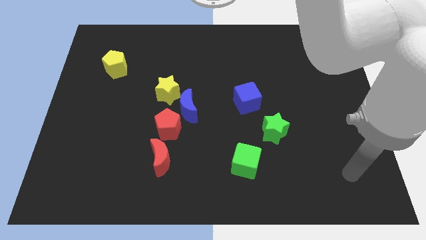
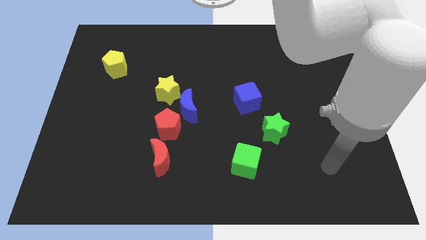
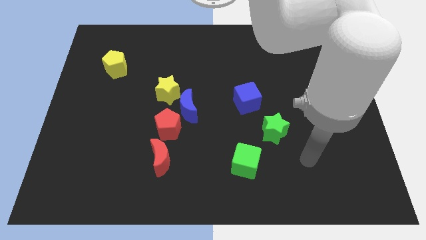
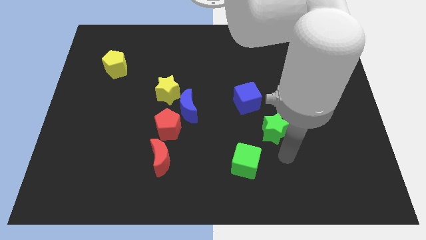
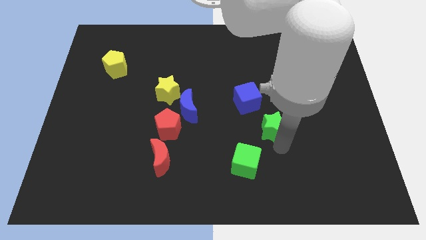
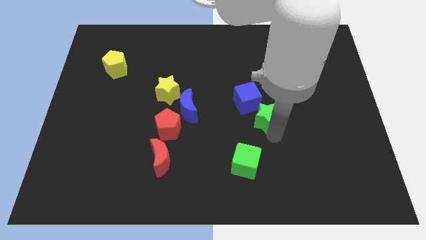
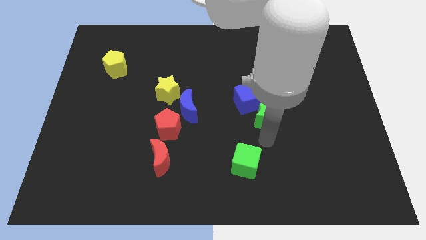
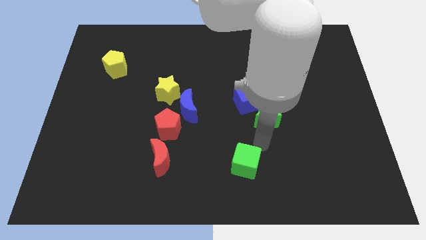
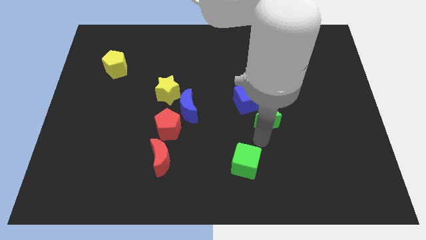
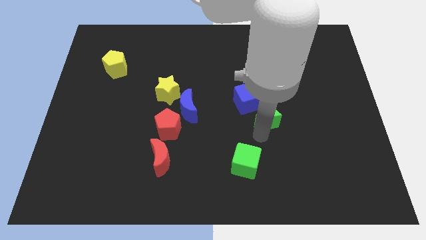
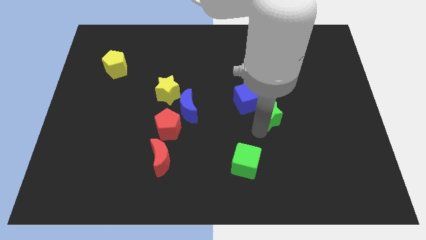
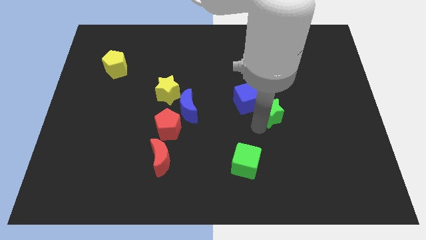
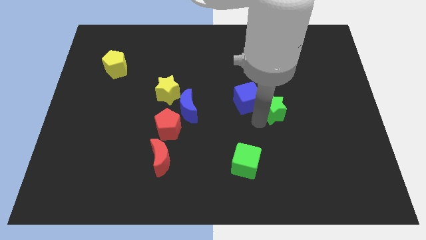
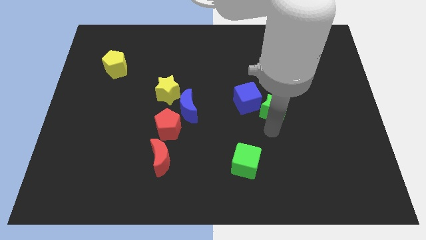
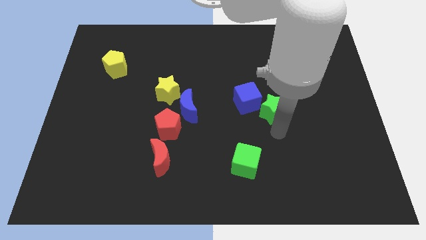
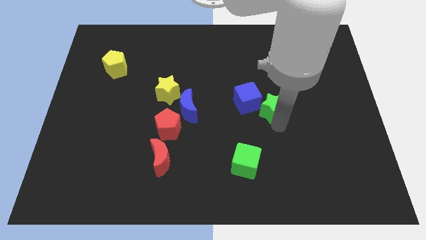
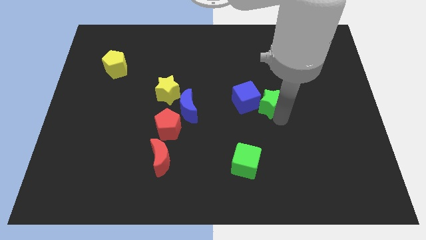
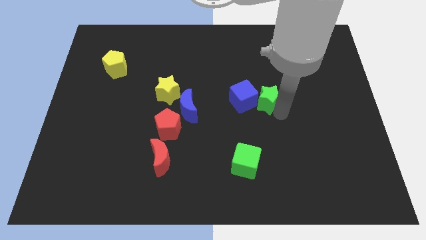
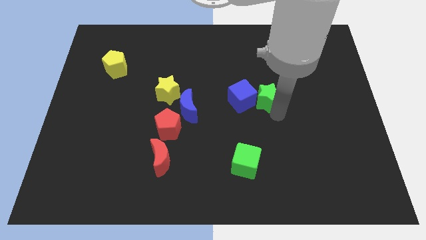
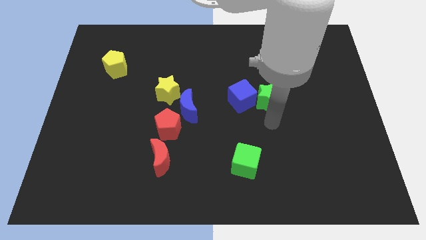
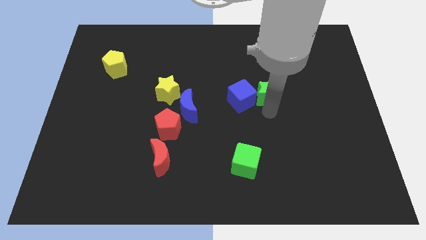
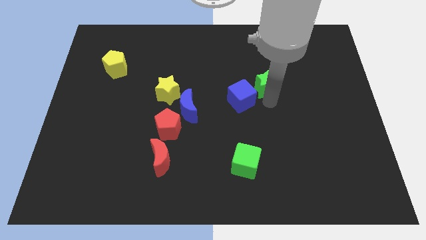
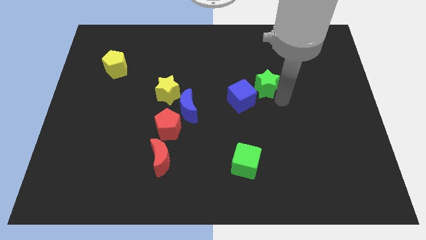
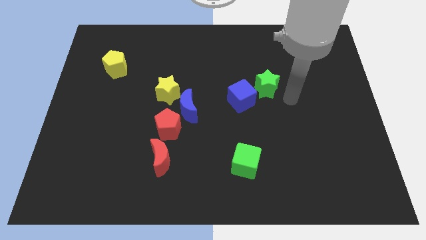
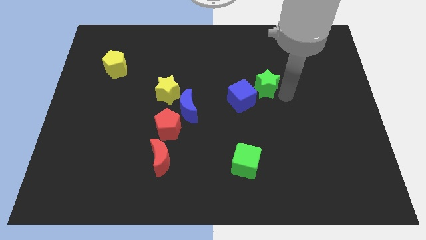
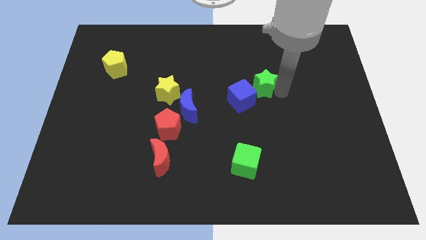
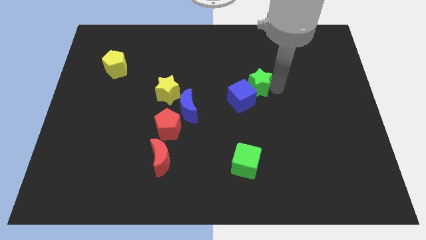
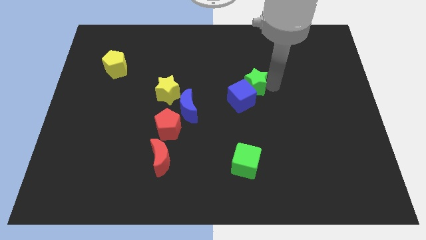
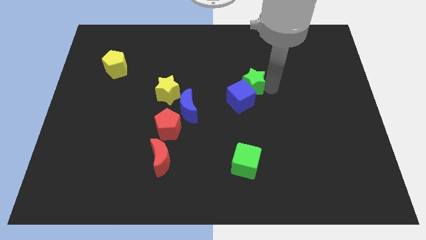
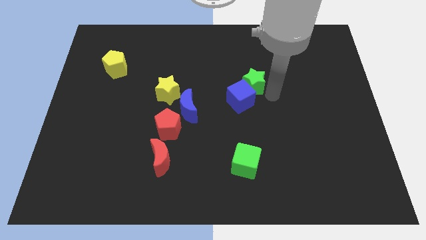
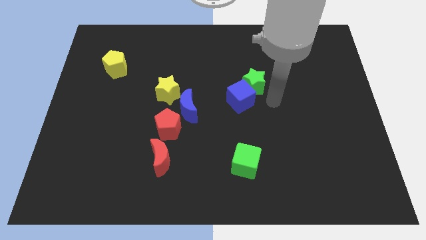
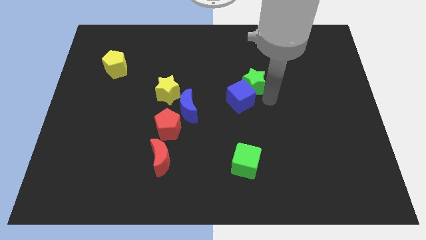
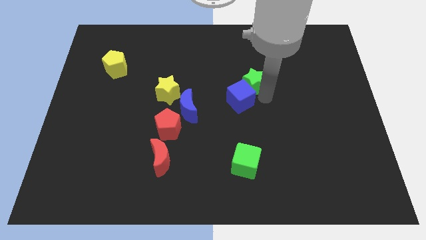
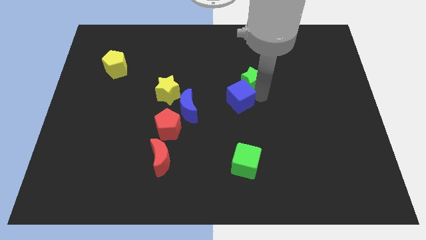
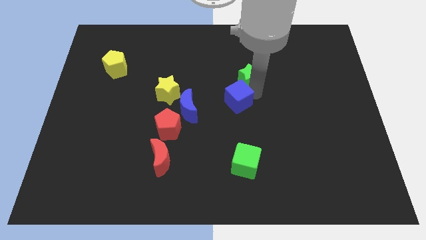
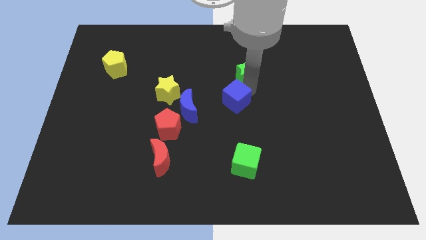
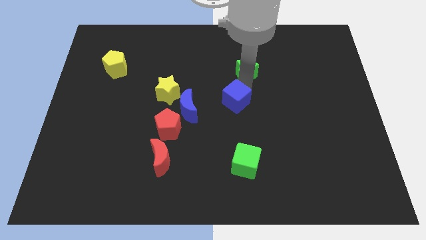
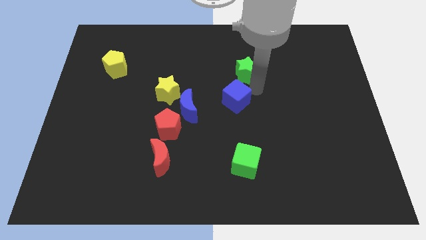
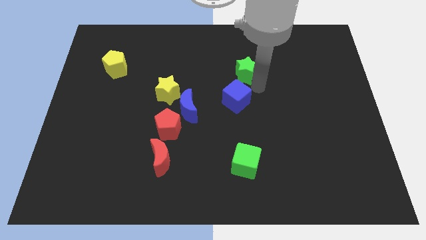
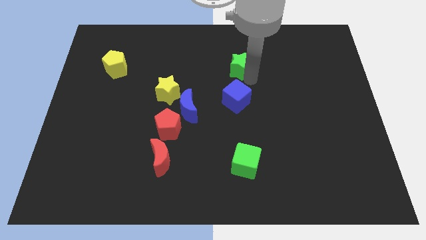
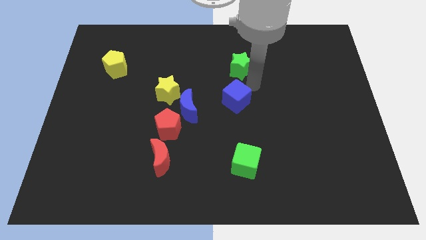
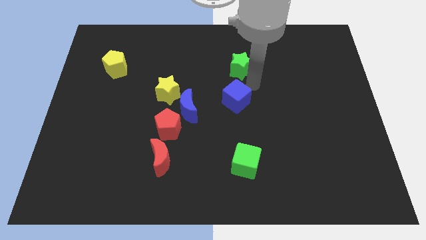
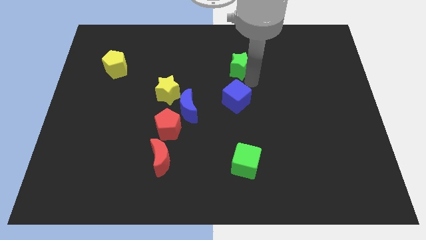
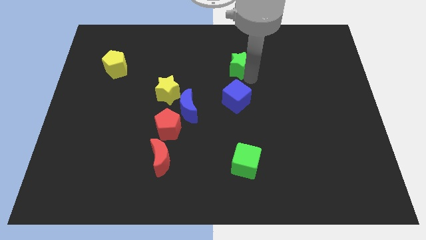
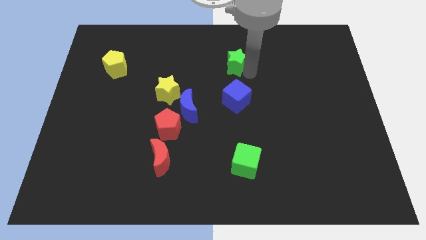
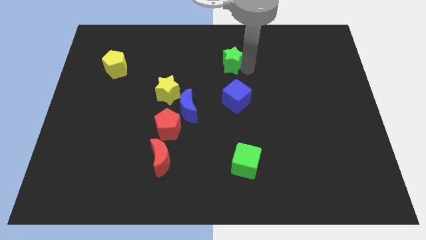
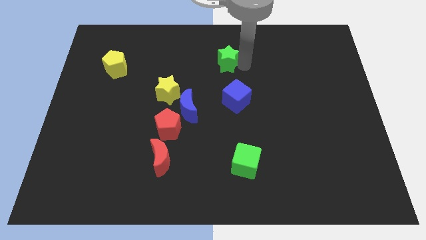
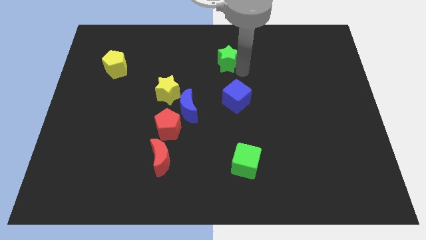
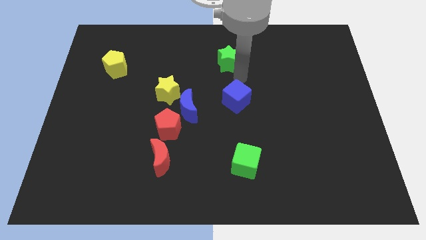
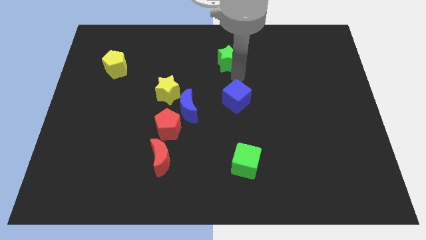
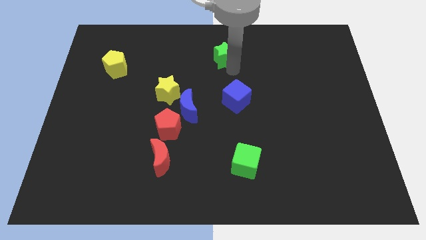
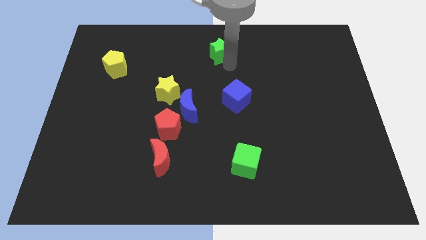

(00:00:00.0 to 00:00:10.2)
move the green star to the towards your base
